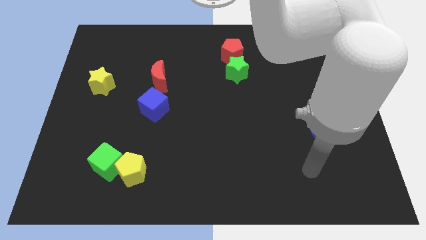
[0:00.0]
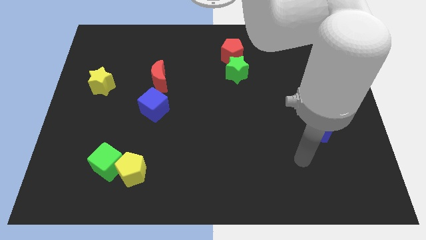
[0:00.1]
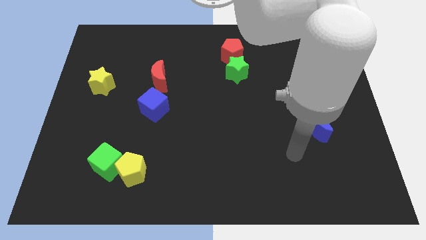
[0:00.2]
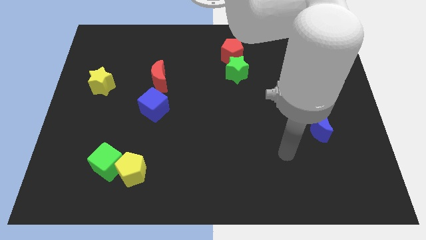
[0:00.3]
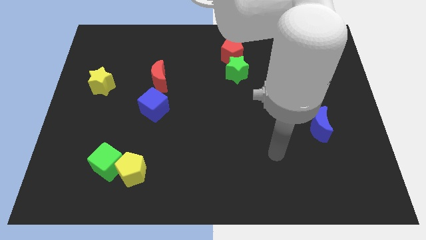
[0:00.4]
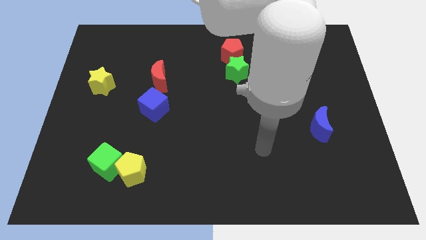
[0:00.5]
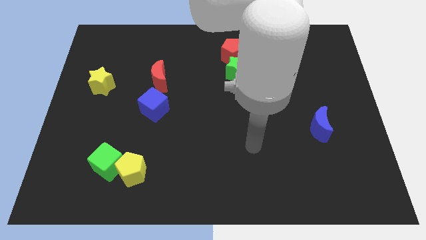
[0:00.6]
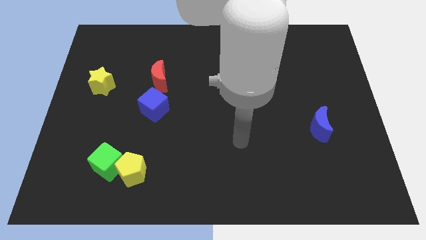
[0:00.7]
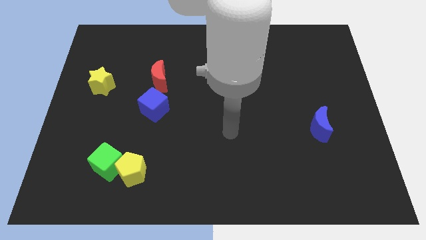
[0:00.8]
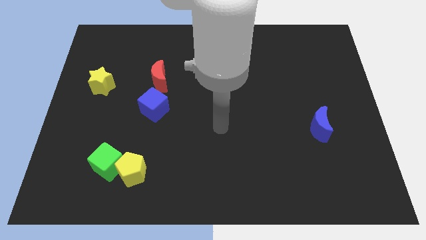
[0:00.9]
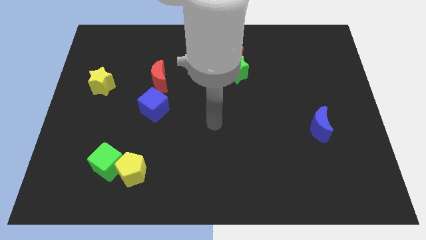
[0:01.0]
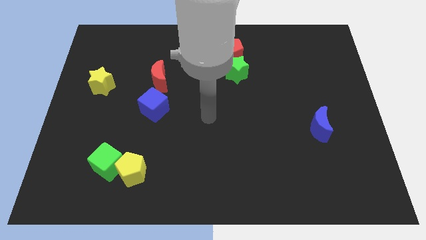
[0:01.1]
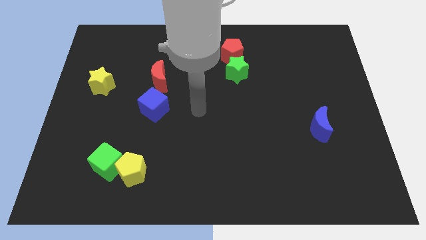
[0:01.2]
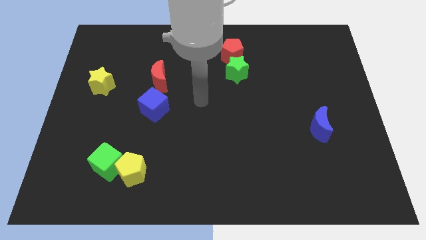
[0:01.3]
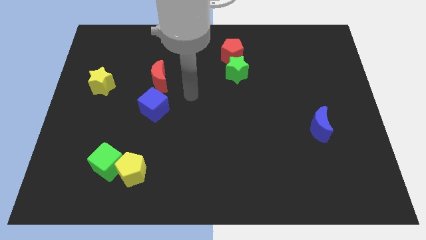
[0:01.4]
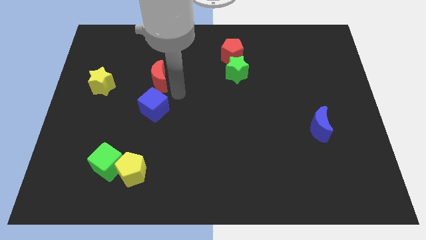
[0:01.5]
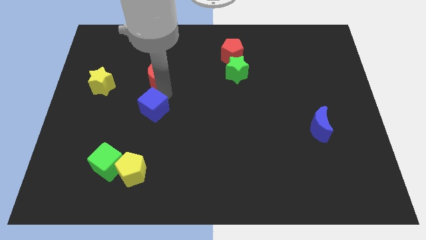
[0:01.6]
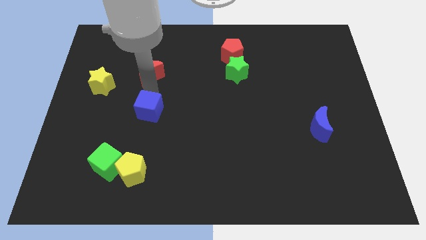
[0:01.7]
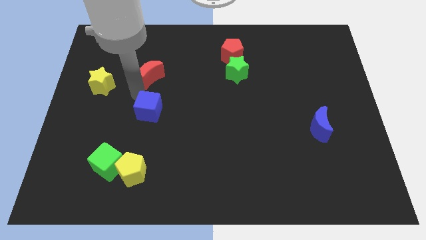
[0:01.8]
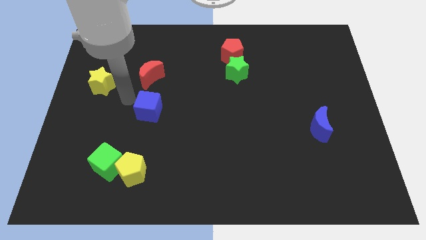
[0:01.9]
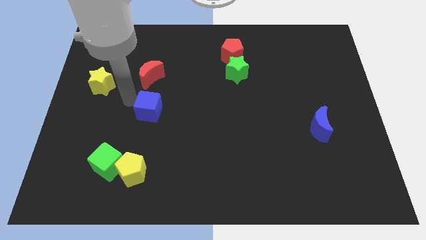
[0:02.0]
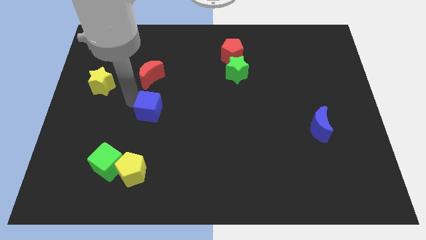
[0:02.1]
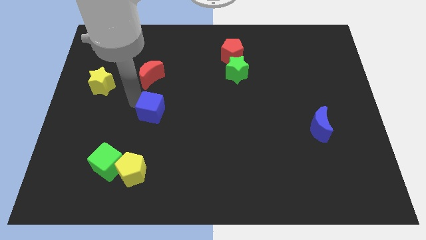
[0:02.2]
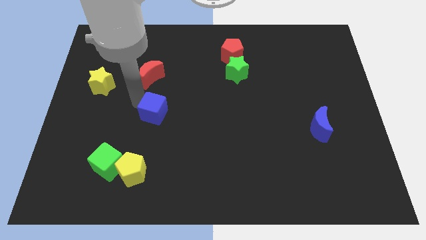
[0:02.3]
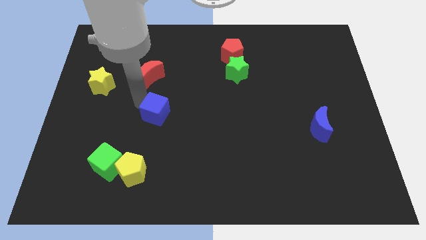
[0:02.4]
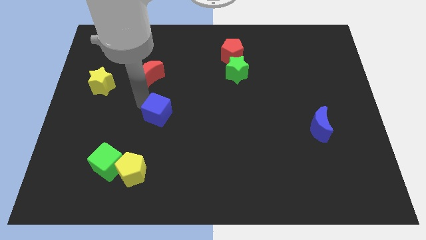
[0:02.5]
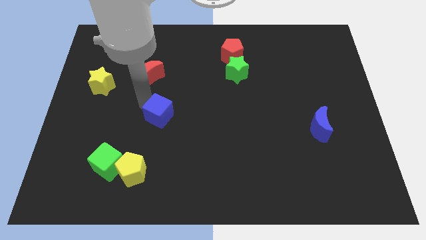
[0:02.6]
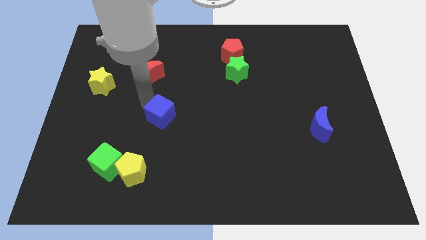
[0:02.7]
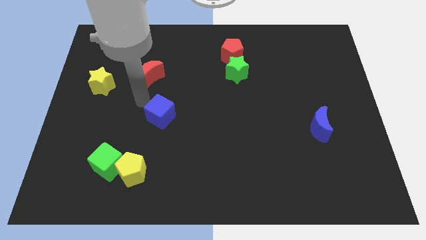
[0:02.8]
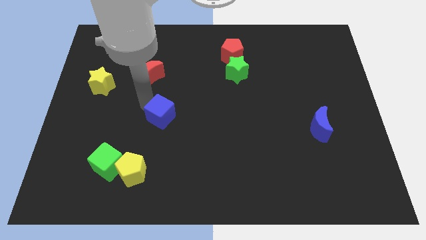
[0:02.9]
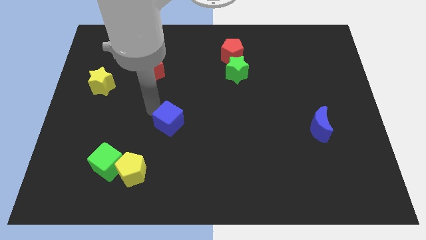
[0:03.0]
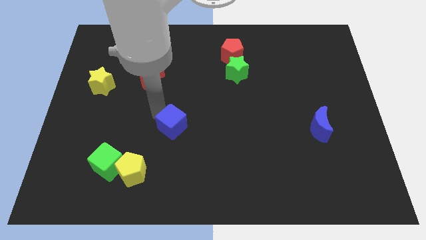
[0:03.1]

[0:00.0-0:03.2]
slightly move the blue cube downwards and to the right

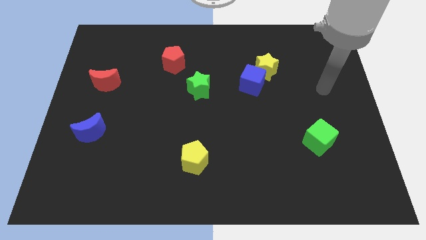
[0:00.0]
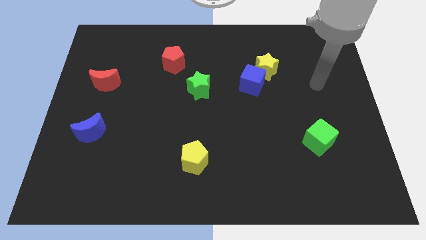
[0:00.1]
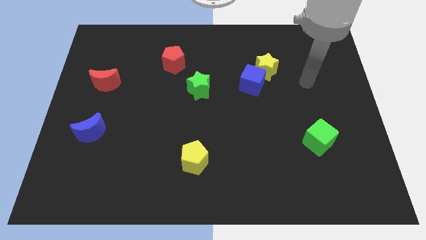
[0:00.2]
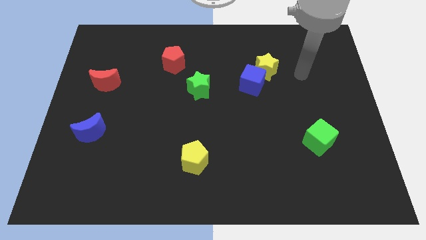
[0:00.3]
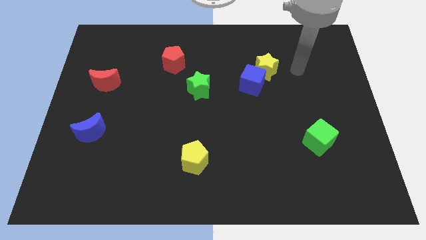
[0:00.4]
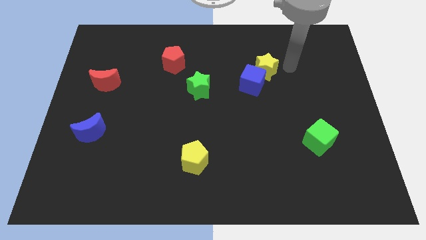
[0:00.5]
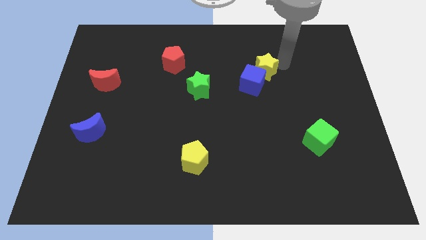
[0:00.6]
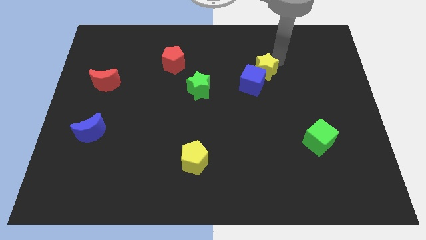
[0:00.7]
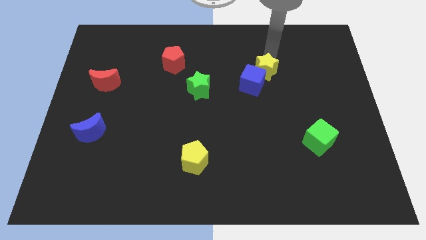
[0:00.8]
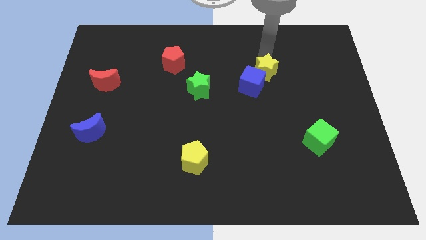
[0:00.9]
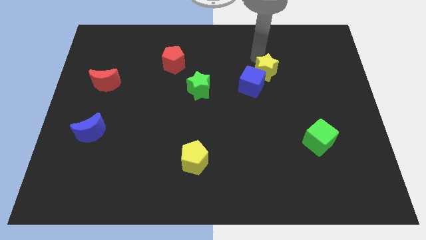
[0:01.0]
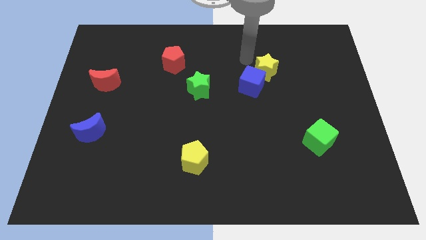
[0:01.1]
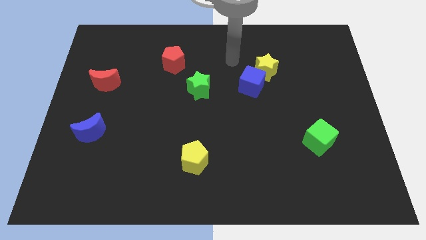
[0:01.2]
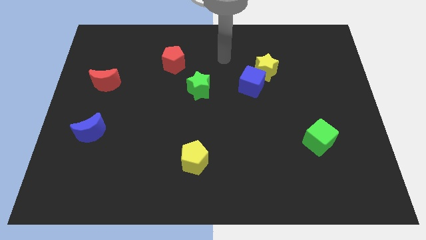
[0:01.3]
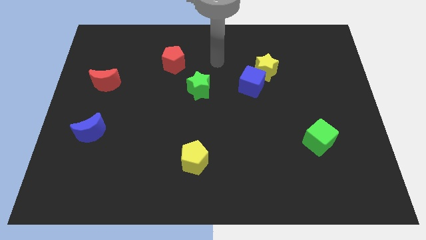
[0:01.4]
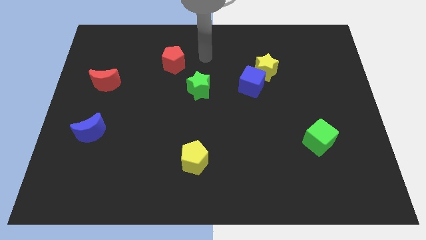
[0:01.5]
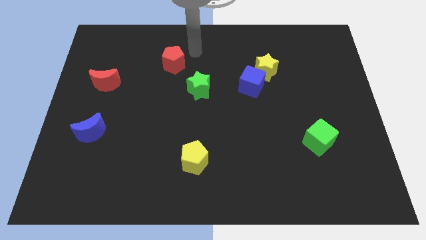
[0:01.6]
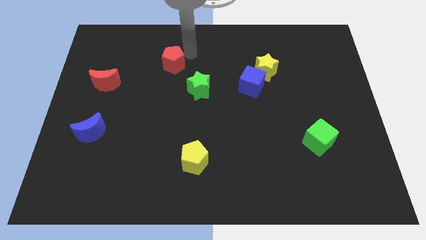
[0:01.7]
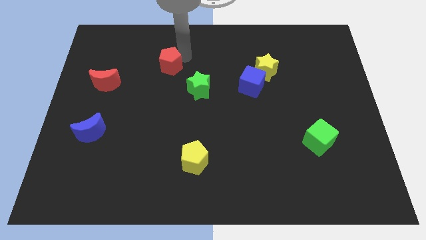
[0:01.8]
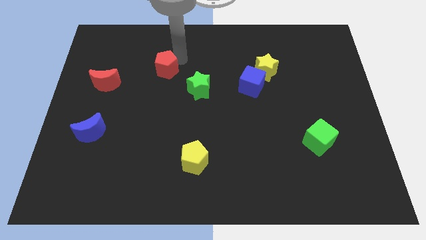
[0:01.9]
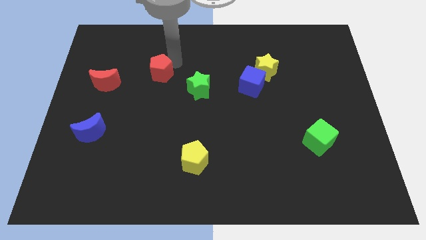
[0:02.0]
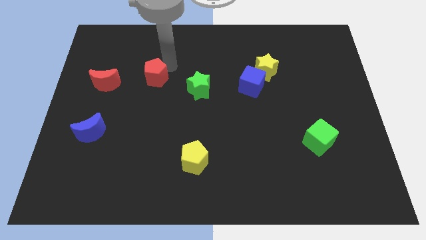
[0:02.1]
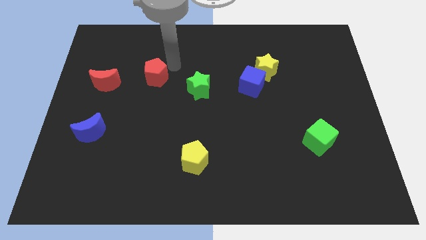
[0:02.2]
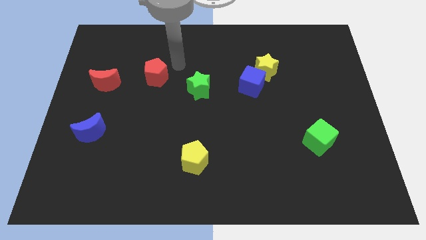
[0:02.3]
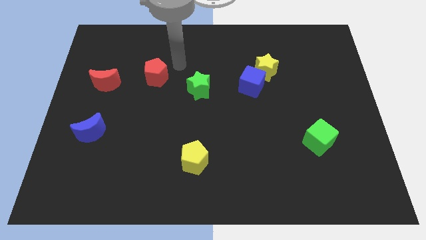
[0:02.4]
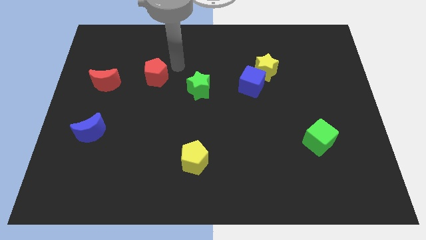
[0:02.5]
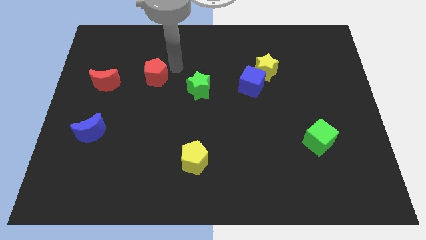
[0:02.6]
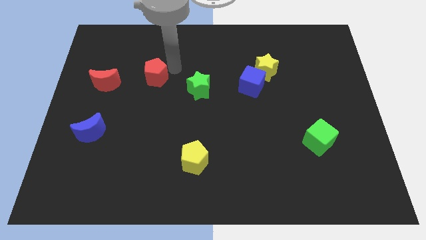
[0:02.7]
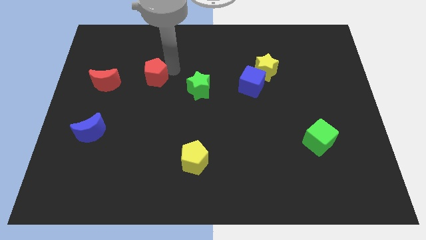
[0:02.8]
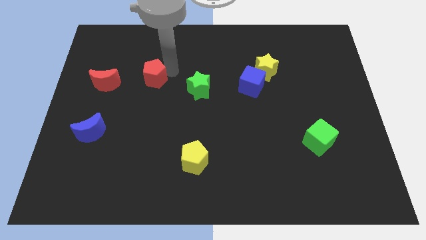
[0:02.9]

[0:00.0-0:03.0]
slightly slide the red pentagon downwards and to the left diagonally

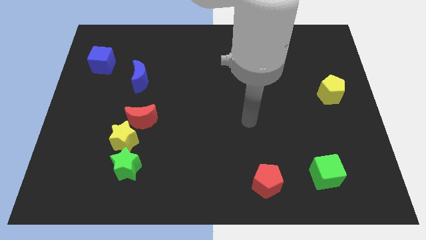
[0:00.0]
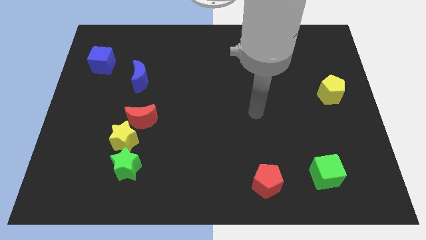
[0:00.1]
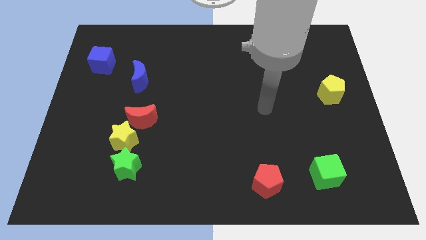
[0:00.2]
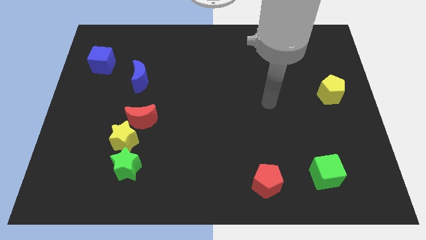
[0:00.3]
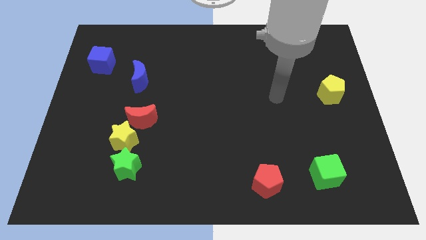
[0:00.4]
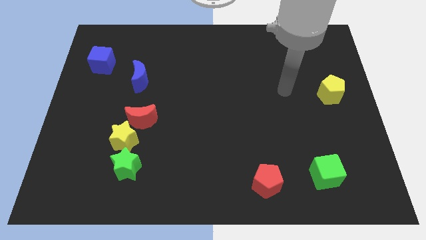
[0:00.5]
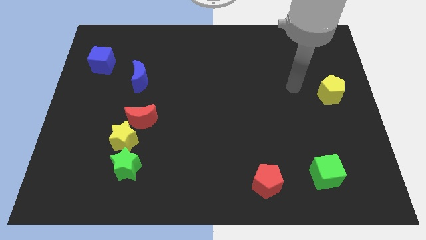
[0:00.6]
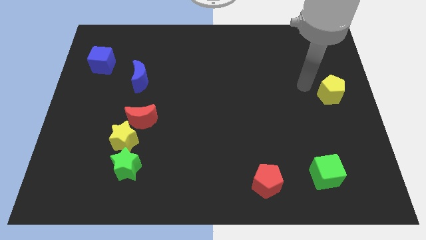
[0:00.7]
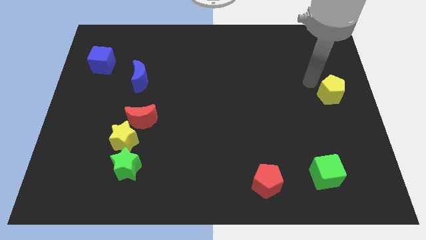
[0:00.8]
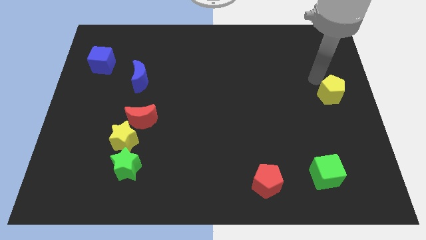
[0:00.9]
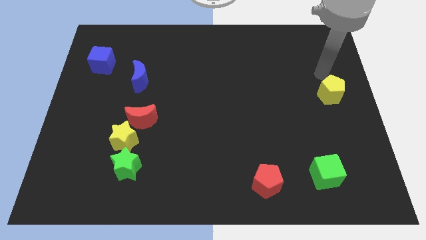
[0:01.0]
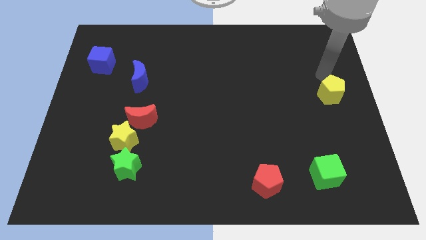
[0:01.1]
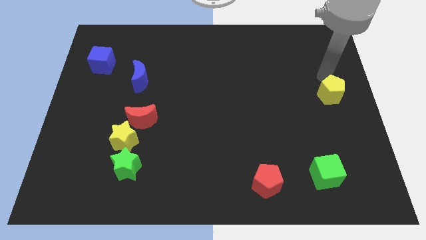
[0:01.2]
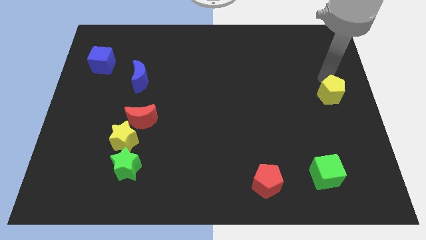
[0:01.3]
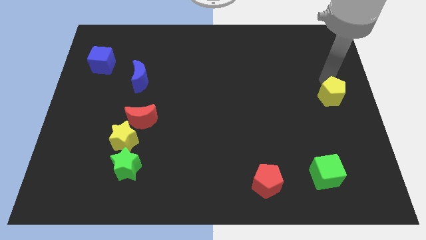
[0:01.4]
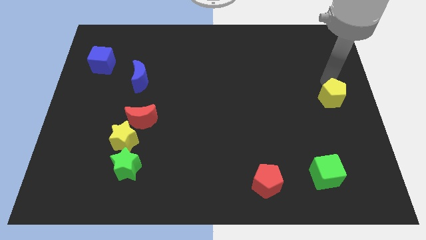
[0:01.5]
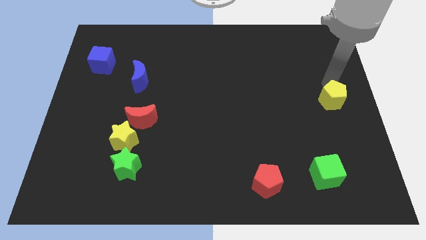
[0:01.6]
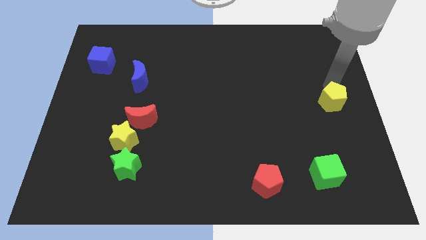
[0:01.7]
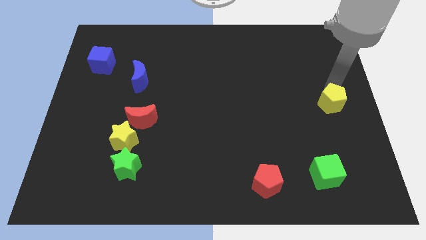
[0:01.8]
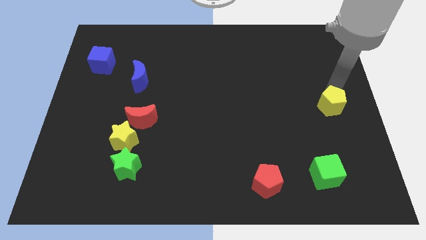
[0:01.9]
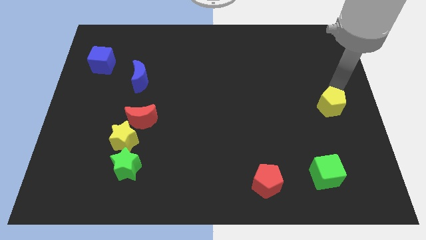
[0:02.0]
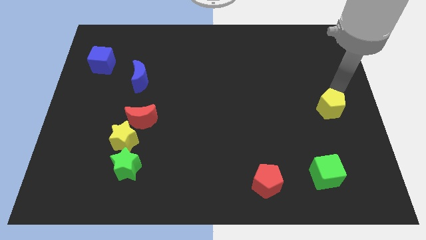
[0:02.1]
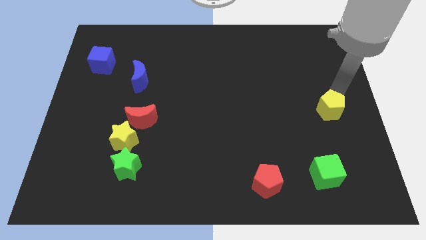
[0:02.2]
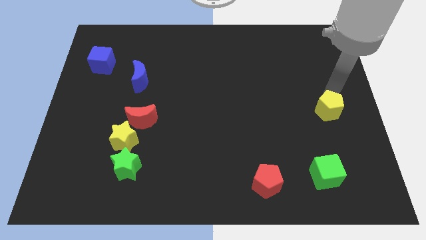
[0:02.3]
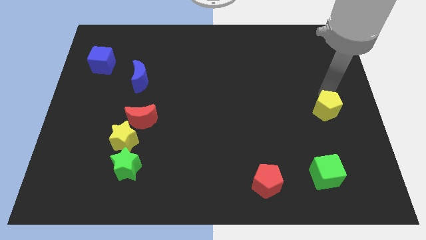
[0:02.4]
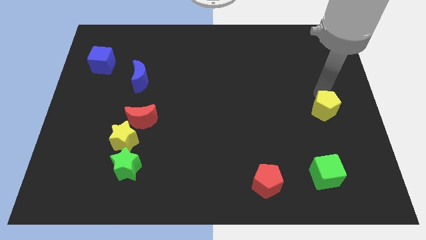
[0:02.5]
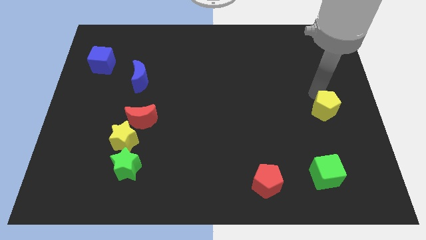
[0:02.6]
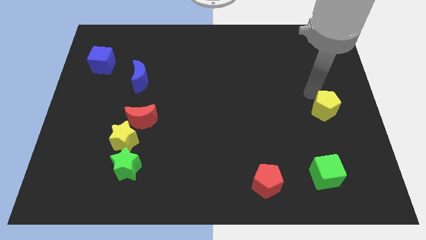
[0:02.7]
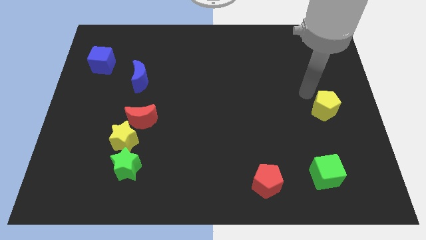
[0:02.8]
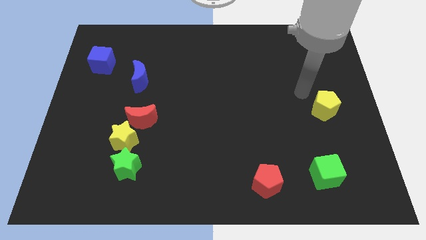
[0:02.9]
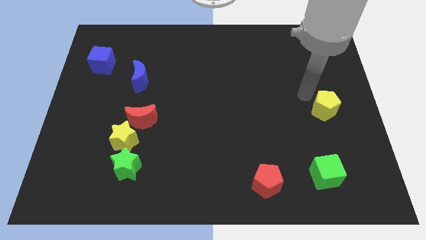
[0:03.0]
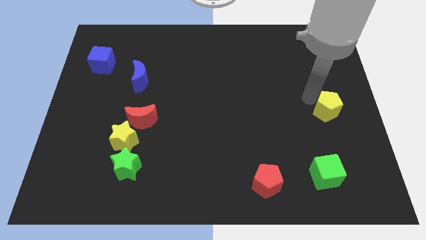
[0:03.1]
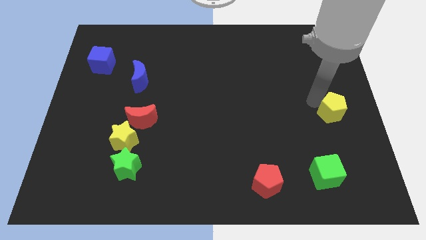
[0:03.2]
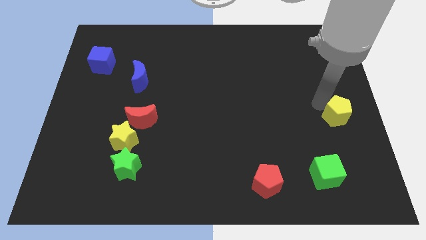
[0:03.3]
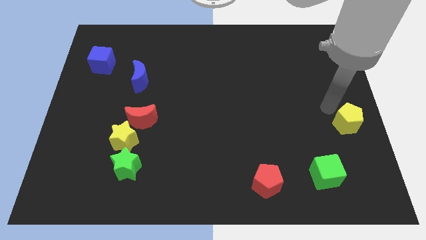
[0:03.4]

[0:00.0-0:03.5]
push the yellow pentagon down a little
